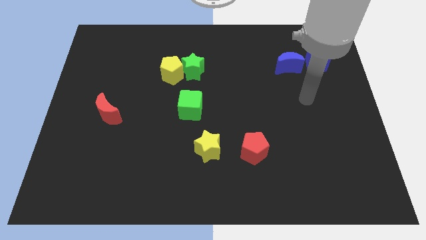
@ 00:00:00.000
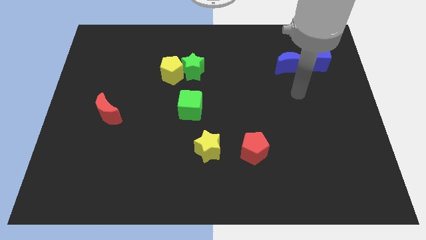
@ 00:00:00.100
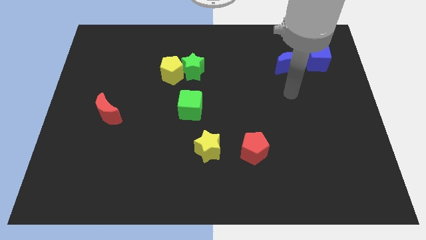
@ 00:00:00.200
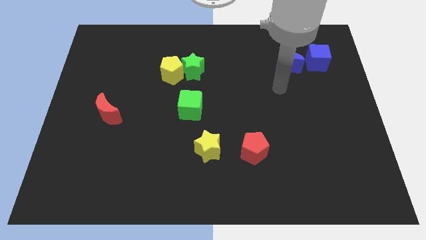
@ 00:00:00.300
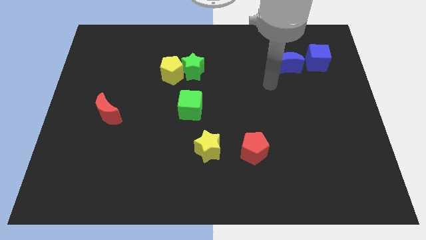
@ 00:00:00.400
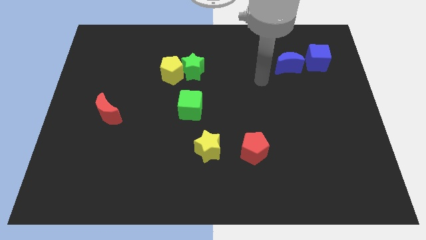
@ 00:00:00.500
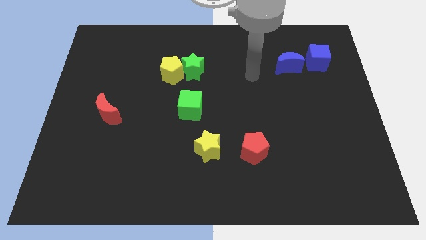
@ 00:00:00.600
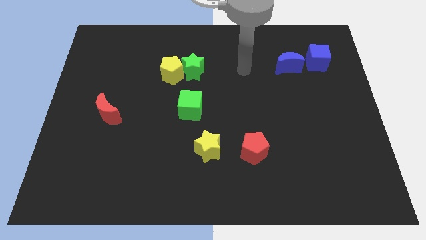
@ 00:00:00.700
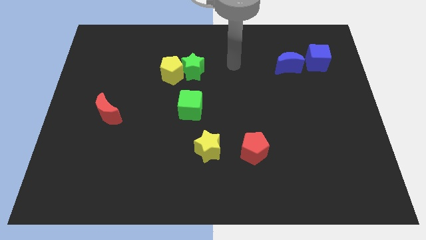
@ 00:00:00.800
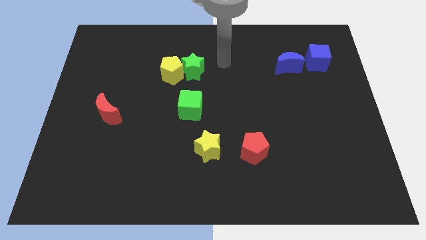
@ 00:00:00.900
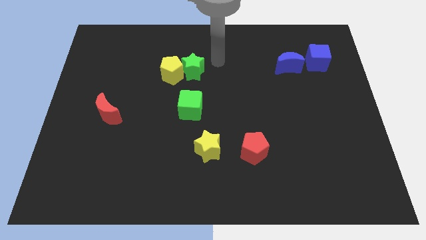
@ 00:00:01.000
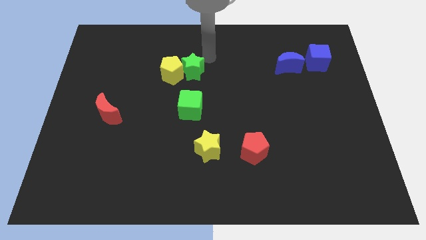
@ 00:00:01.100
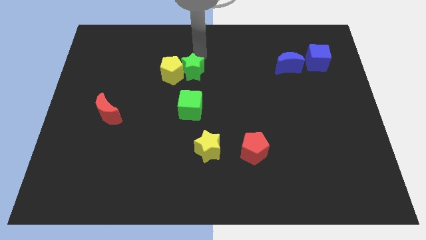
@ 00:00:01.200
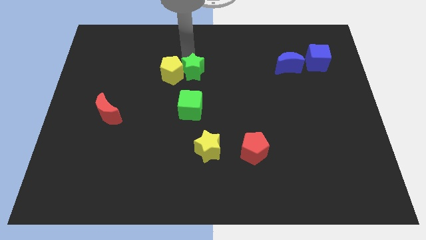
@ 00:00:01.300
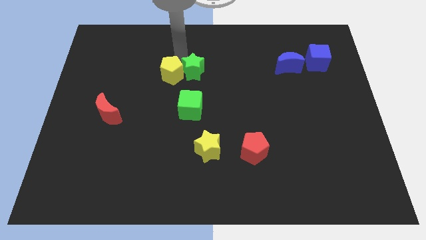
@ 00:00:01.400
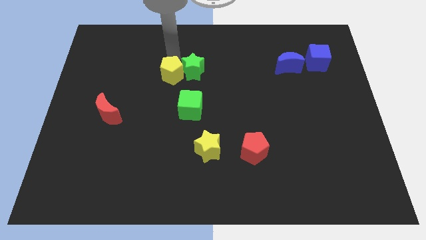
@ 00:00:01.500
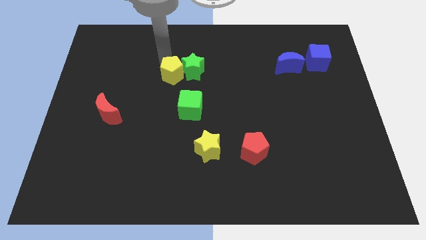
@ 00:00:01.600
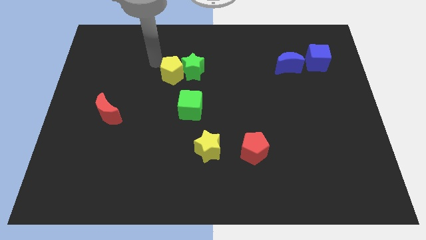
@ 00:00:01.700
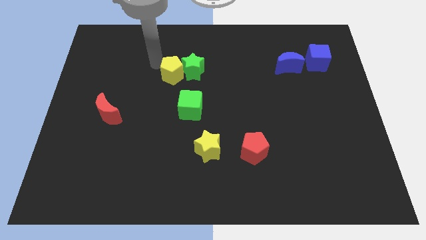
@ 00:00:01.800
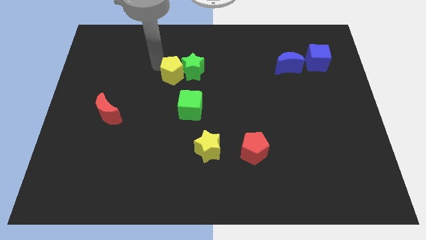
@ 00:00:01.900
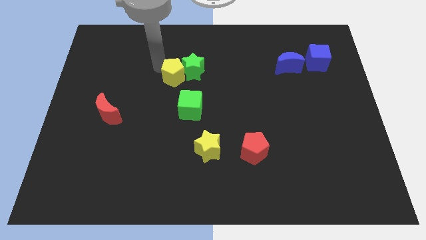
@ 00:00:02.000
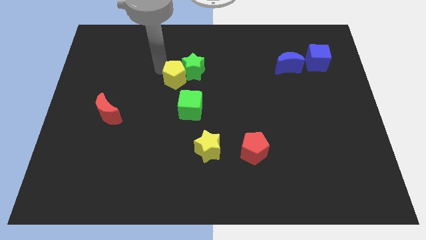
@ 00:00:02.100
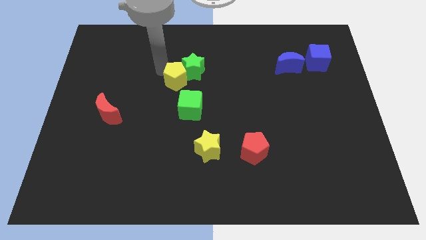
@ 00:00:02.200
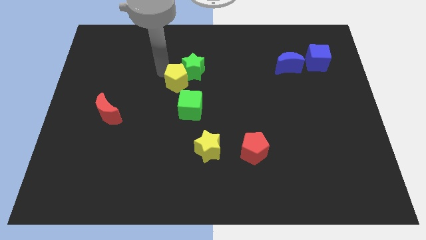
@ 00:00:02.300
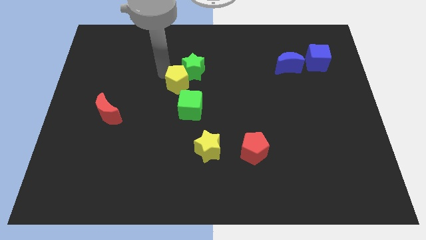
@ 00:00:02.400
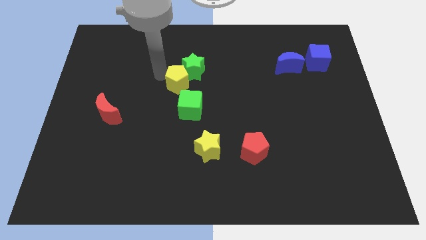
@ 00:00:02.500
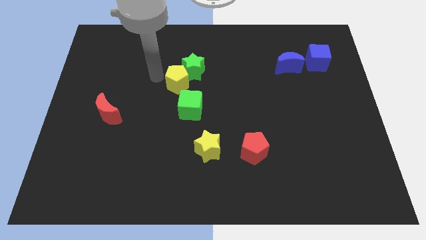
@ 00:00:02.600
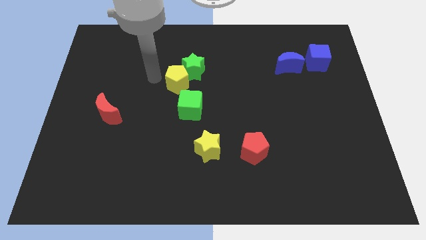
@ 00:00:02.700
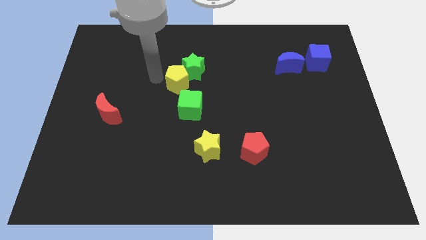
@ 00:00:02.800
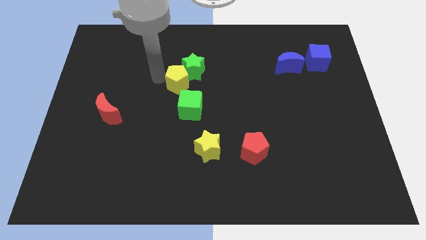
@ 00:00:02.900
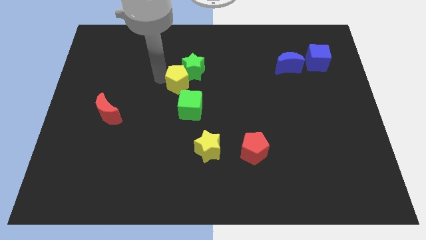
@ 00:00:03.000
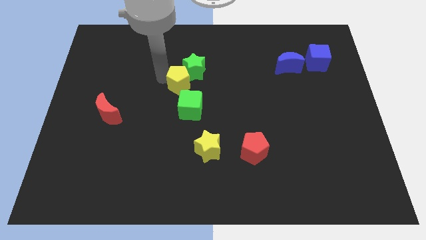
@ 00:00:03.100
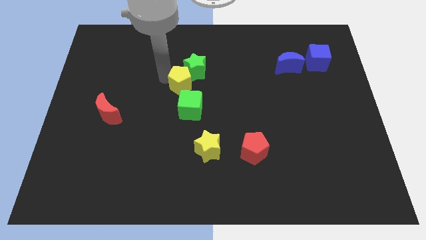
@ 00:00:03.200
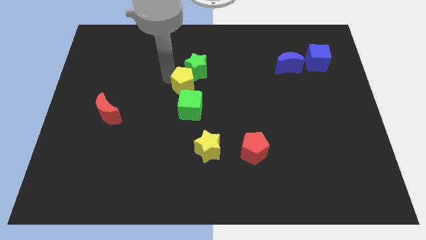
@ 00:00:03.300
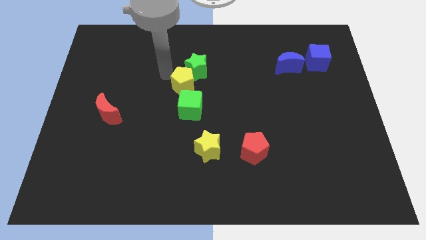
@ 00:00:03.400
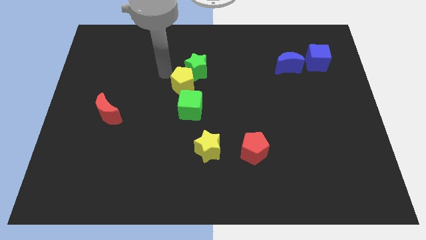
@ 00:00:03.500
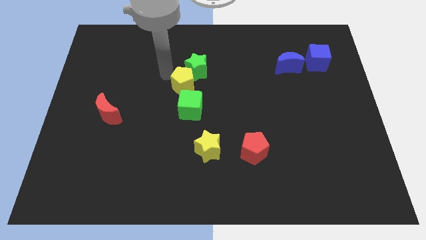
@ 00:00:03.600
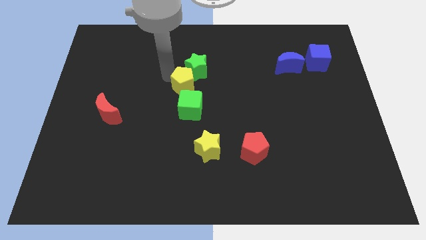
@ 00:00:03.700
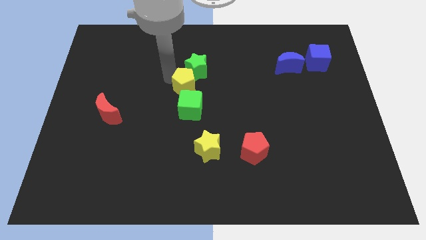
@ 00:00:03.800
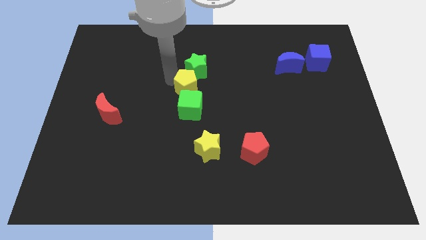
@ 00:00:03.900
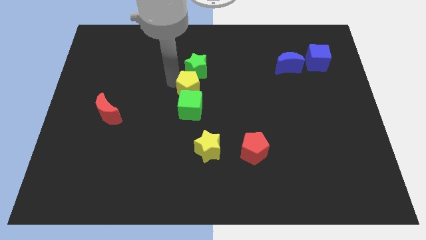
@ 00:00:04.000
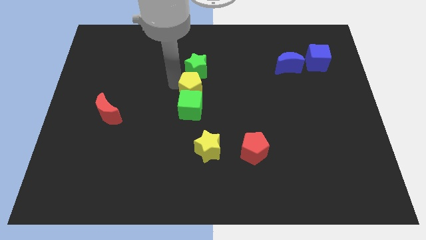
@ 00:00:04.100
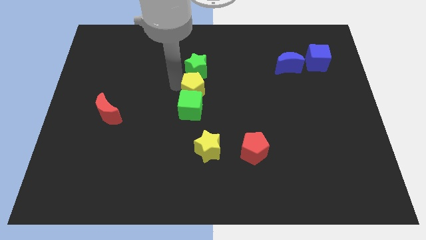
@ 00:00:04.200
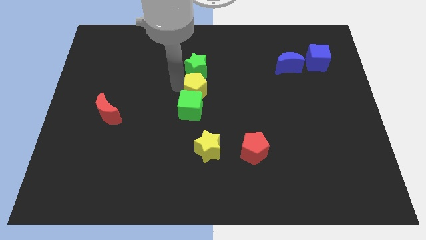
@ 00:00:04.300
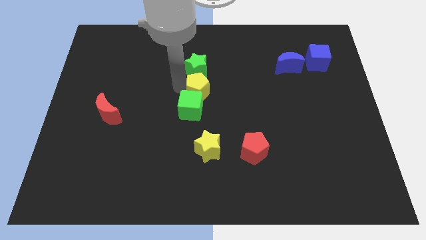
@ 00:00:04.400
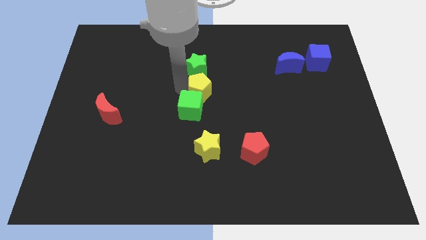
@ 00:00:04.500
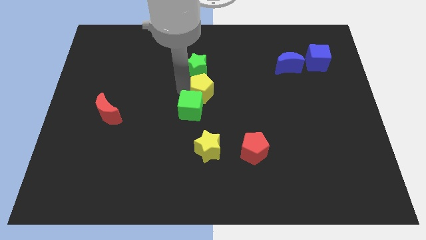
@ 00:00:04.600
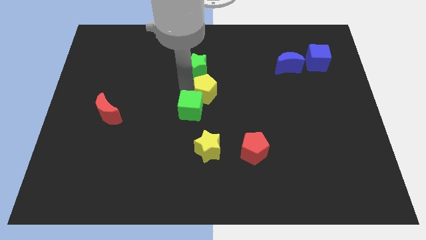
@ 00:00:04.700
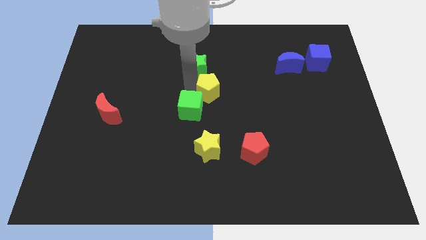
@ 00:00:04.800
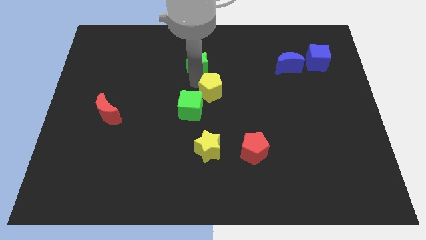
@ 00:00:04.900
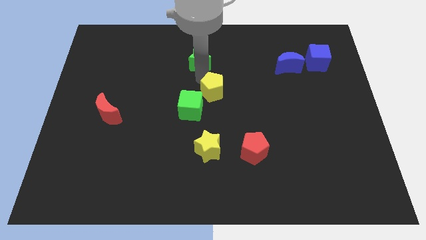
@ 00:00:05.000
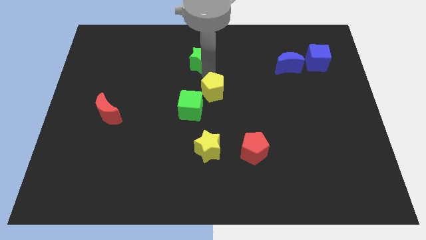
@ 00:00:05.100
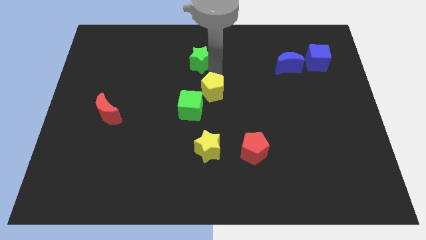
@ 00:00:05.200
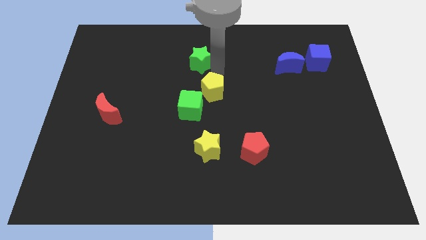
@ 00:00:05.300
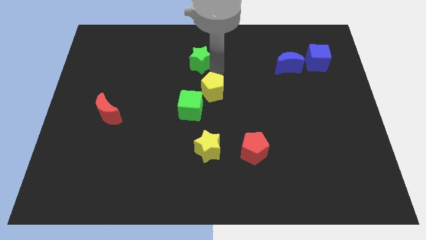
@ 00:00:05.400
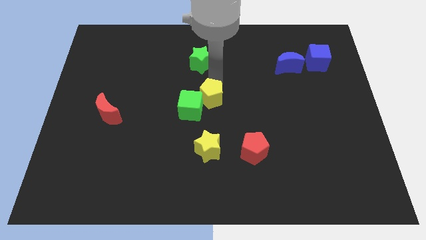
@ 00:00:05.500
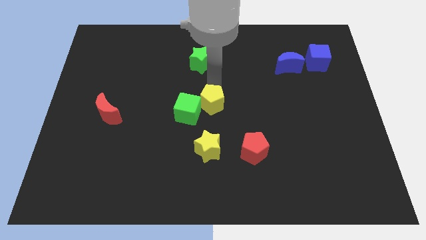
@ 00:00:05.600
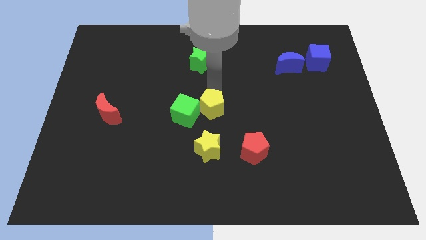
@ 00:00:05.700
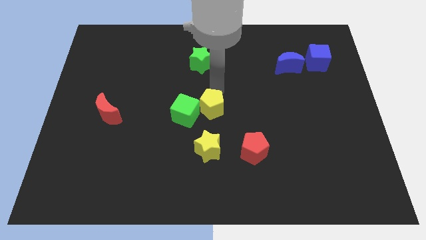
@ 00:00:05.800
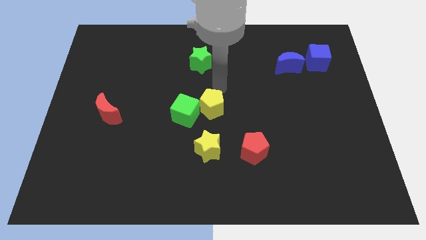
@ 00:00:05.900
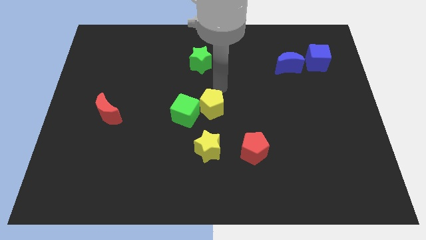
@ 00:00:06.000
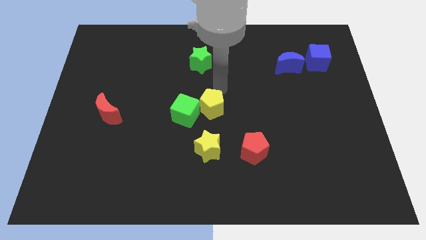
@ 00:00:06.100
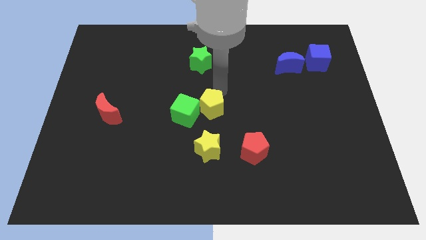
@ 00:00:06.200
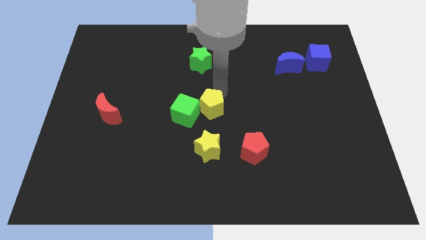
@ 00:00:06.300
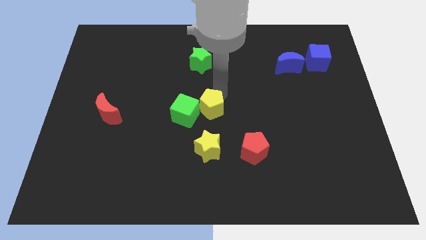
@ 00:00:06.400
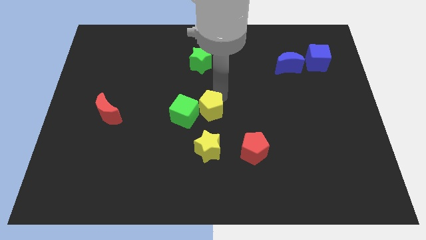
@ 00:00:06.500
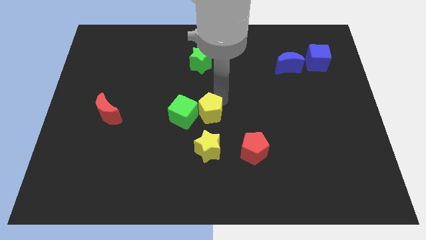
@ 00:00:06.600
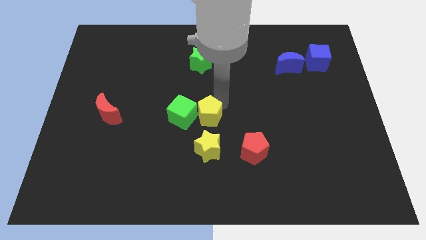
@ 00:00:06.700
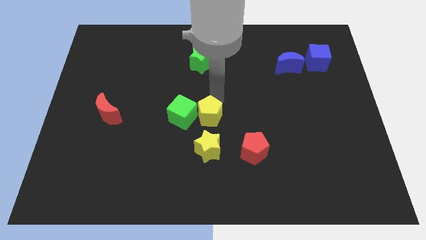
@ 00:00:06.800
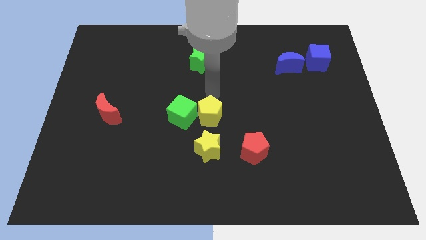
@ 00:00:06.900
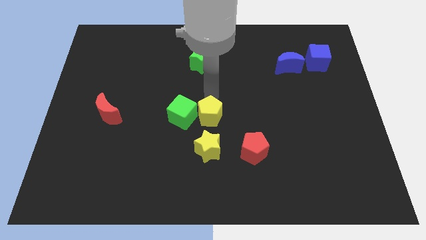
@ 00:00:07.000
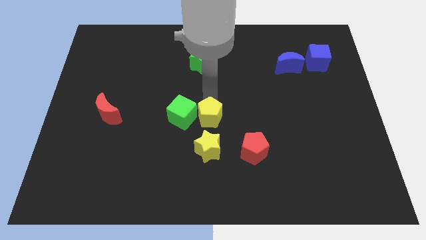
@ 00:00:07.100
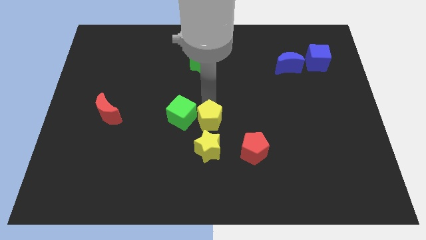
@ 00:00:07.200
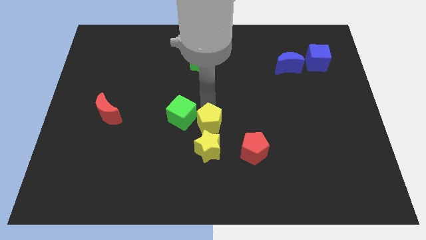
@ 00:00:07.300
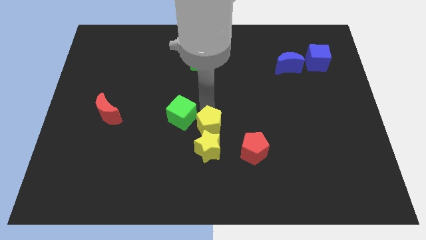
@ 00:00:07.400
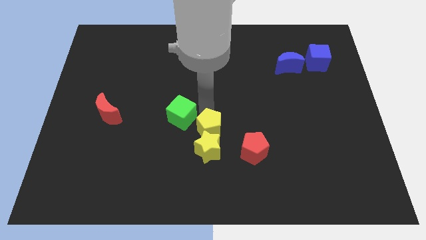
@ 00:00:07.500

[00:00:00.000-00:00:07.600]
move the yellow pentagon next to the yellow star
